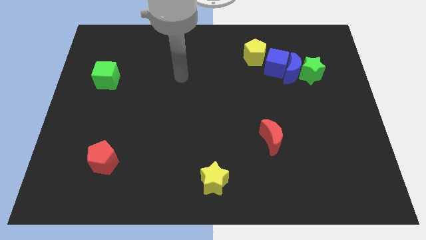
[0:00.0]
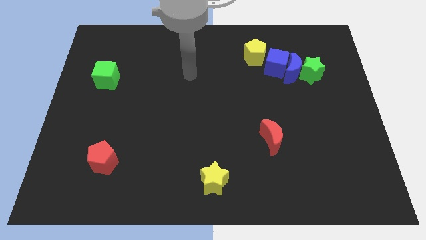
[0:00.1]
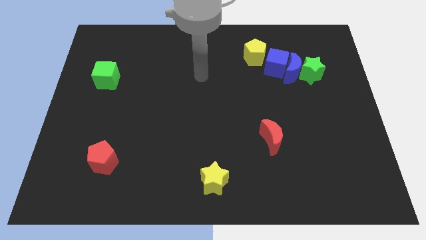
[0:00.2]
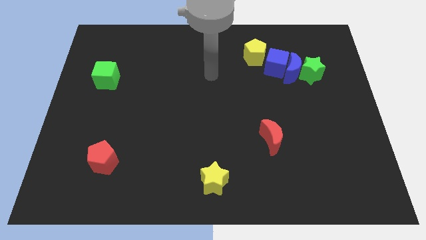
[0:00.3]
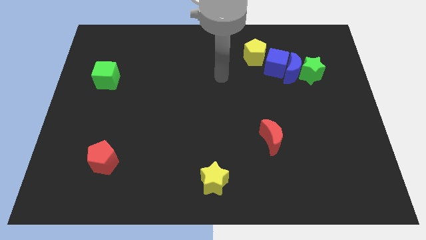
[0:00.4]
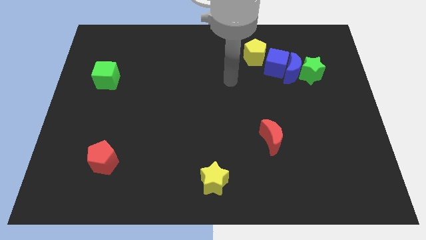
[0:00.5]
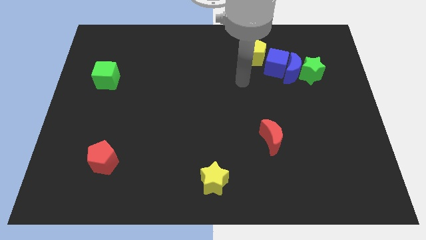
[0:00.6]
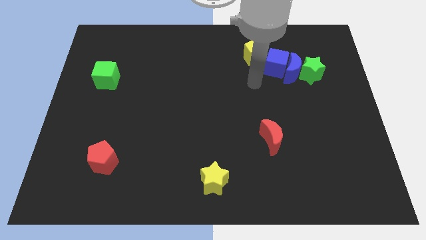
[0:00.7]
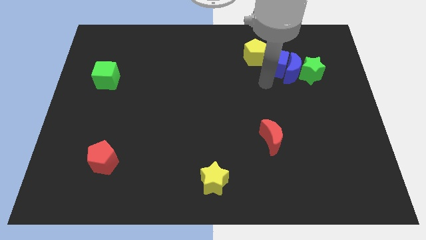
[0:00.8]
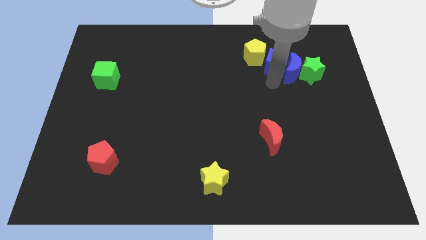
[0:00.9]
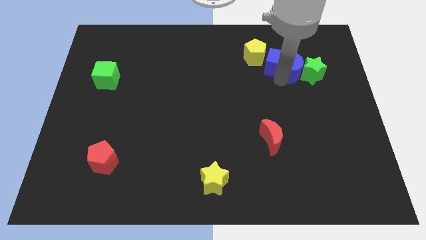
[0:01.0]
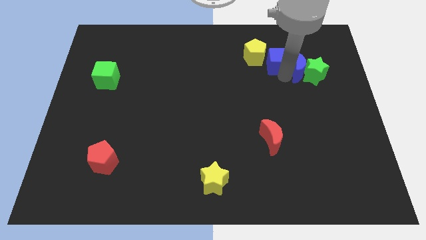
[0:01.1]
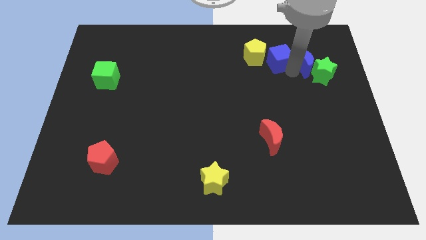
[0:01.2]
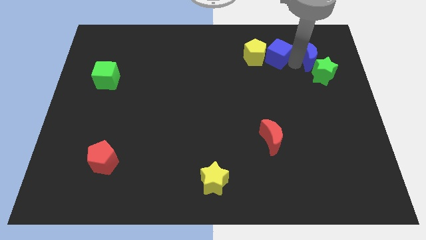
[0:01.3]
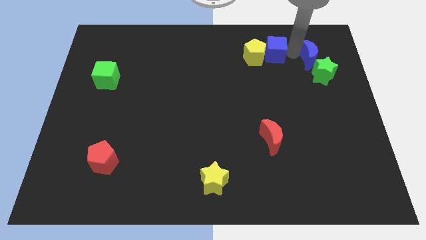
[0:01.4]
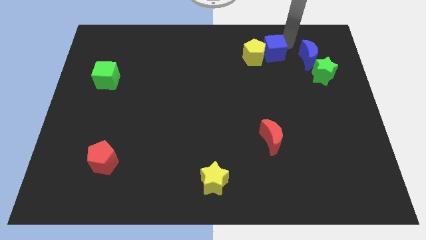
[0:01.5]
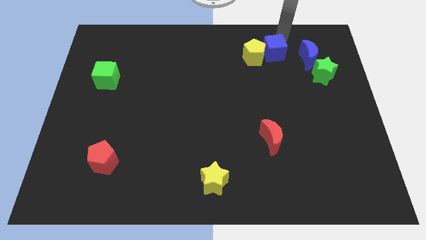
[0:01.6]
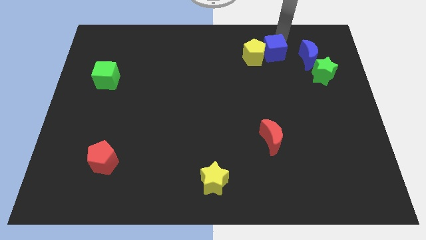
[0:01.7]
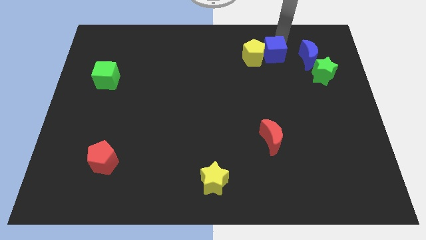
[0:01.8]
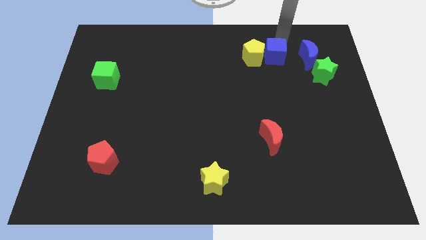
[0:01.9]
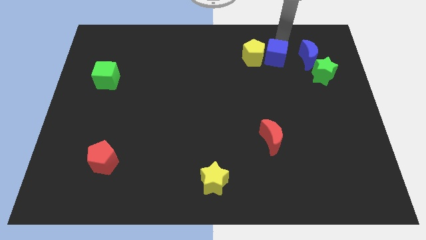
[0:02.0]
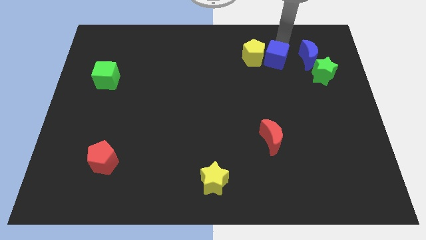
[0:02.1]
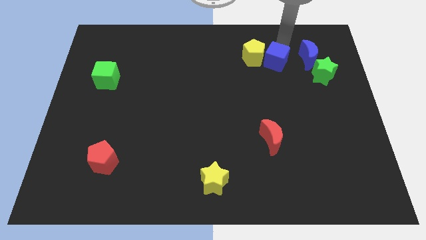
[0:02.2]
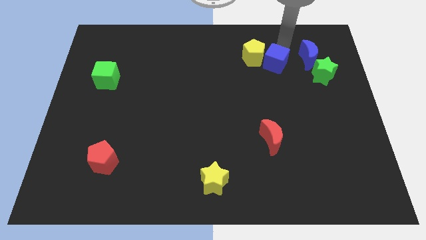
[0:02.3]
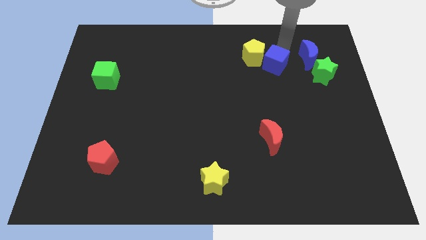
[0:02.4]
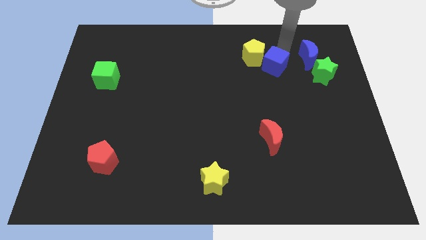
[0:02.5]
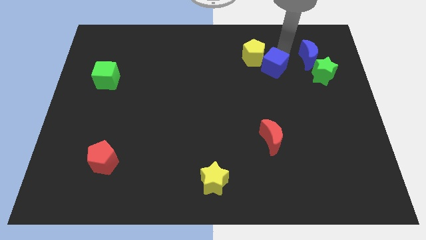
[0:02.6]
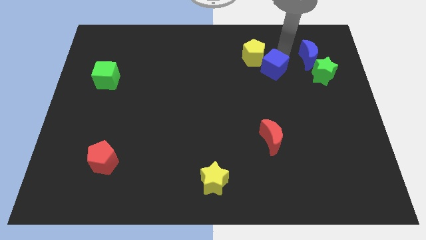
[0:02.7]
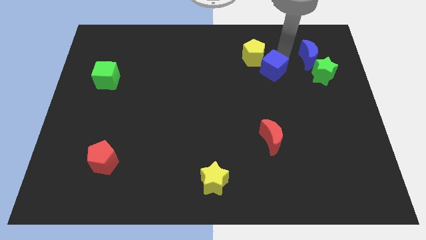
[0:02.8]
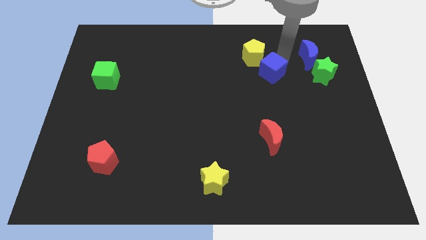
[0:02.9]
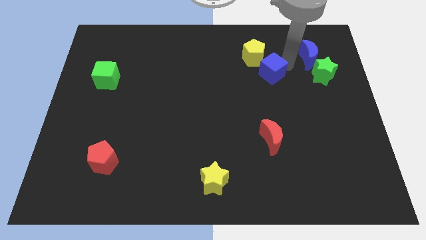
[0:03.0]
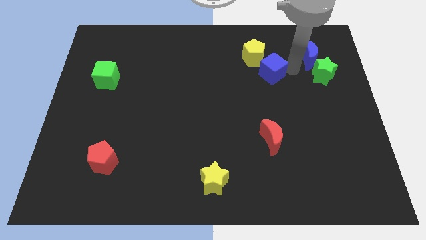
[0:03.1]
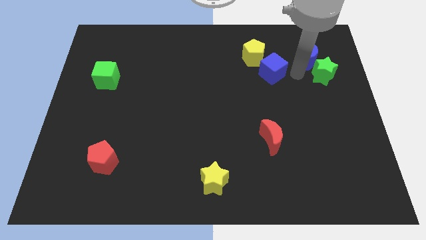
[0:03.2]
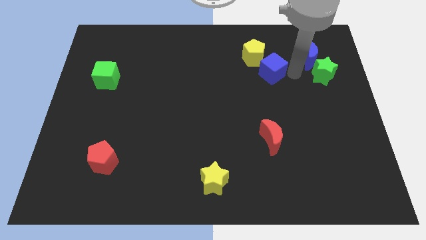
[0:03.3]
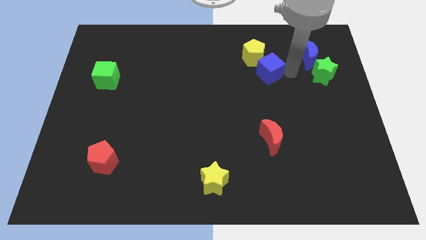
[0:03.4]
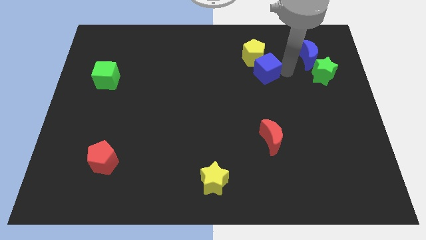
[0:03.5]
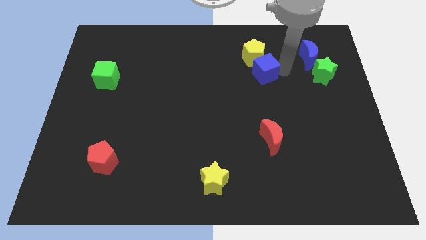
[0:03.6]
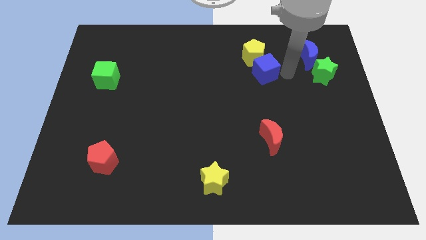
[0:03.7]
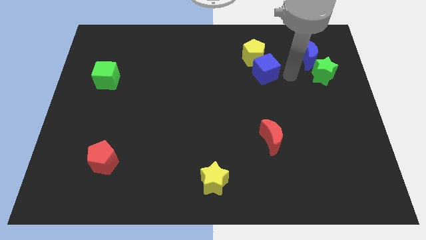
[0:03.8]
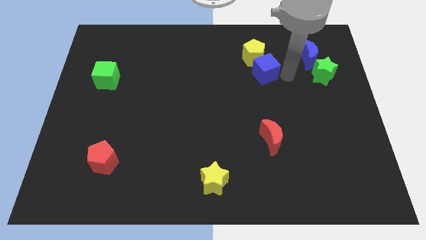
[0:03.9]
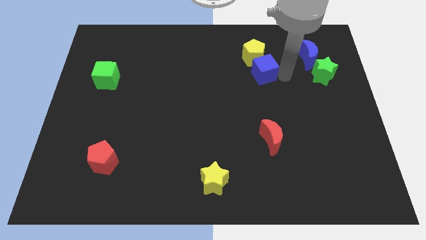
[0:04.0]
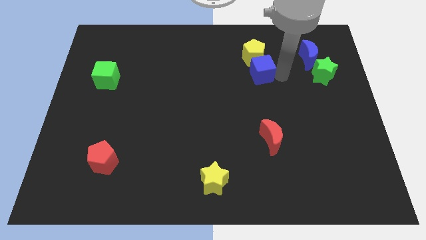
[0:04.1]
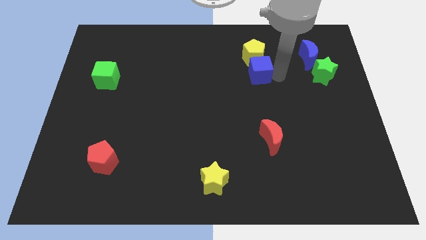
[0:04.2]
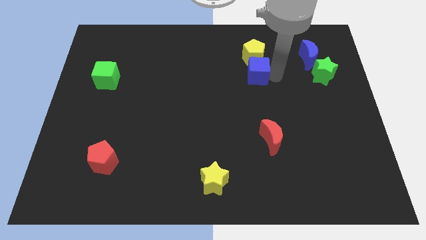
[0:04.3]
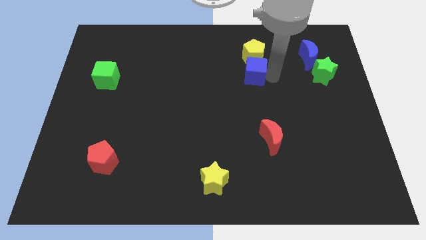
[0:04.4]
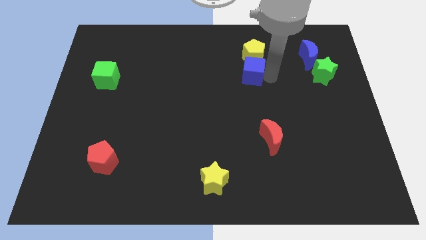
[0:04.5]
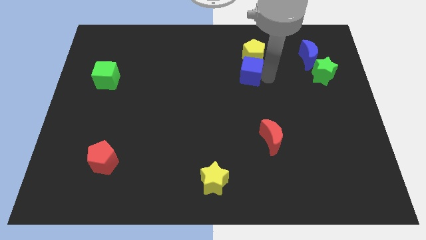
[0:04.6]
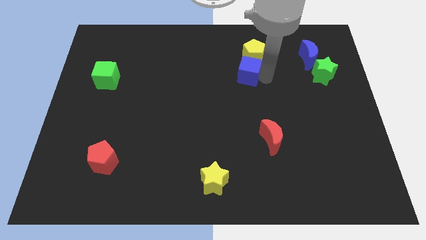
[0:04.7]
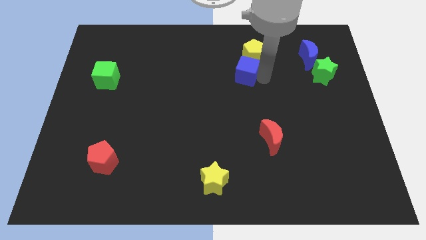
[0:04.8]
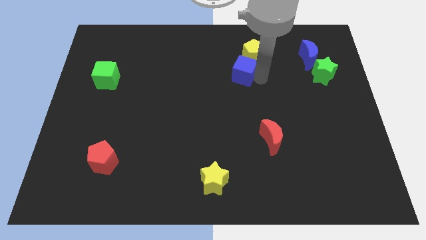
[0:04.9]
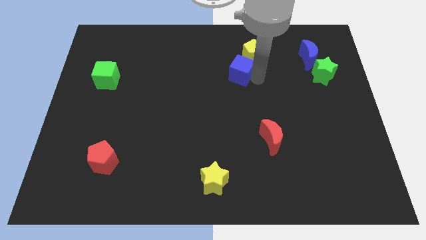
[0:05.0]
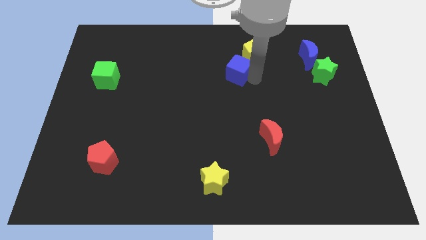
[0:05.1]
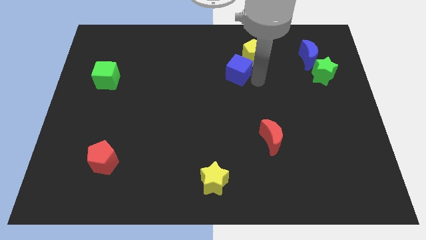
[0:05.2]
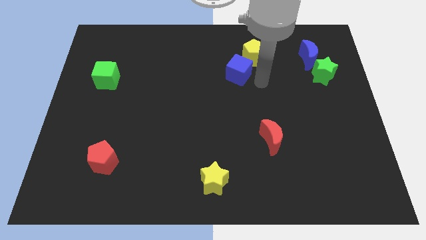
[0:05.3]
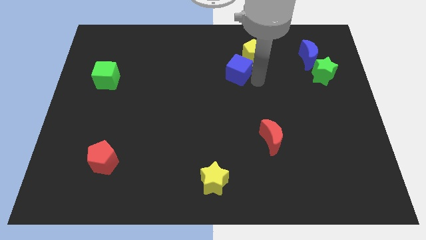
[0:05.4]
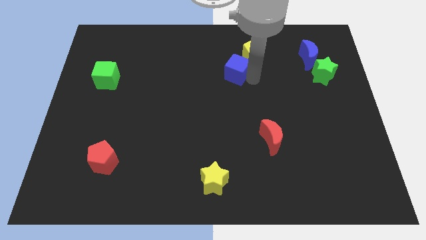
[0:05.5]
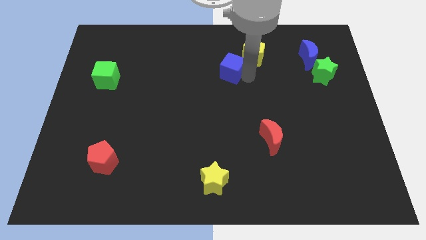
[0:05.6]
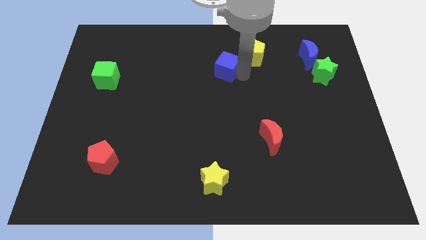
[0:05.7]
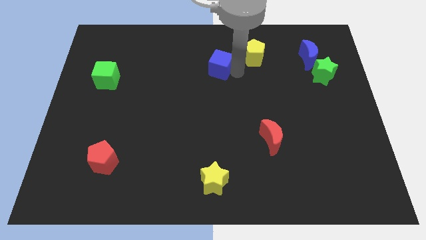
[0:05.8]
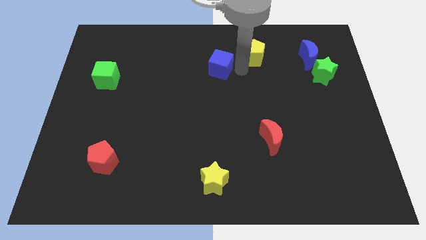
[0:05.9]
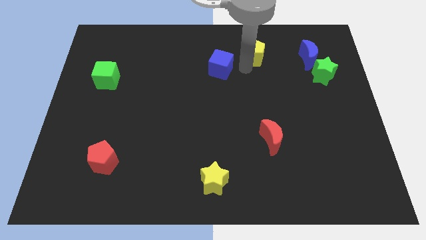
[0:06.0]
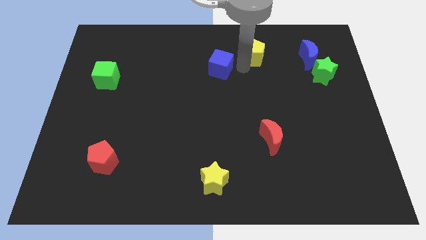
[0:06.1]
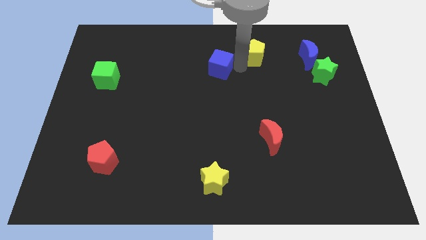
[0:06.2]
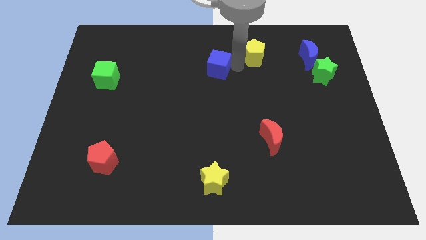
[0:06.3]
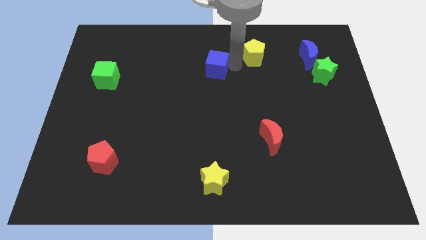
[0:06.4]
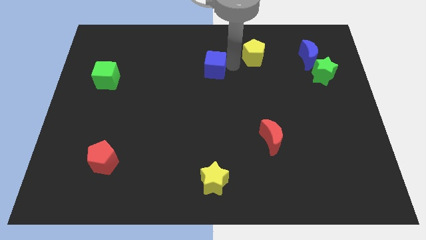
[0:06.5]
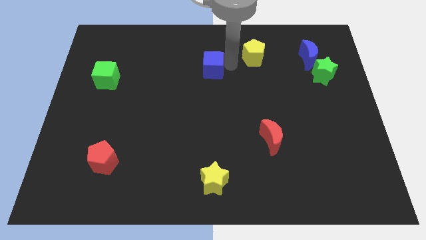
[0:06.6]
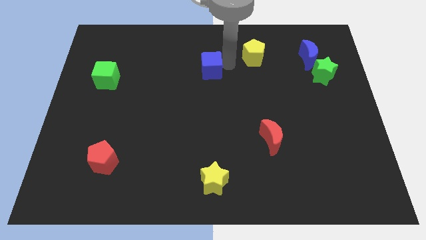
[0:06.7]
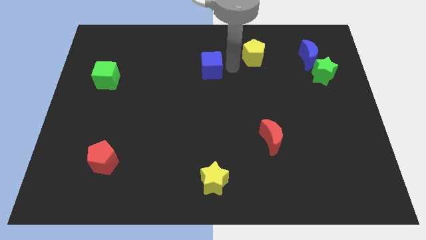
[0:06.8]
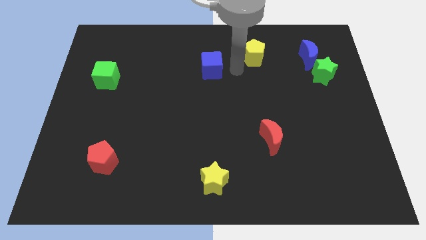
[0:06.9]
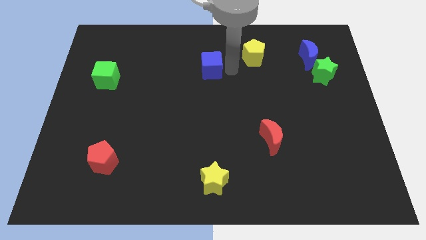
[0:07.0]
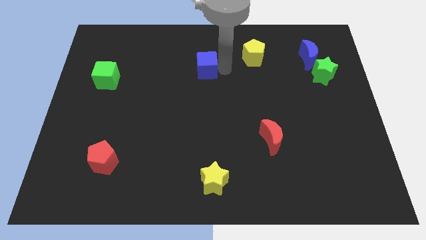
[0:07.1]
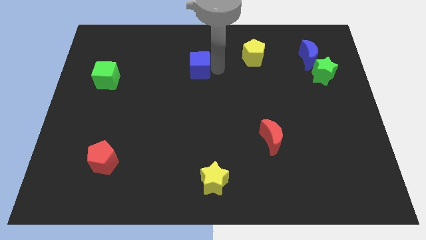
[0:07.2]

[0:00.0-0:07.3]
slide the blue cube left

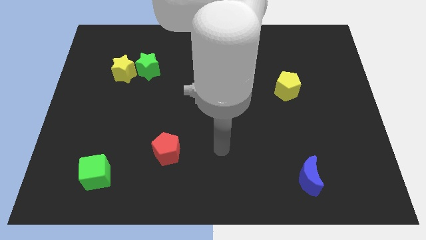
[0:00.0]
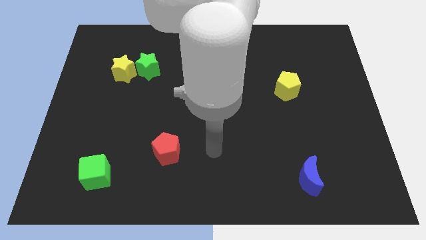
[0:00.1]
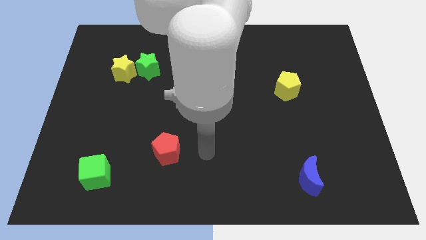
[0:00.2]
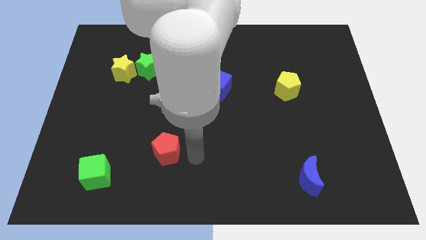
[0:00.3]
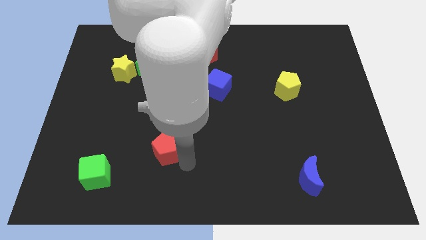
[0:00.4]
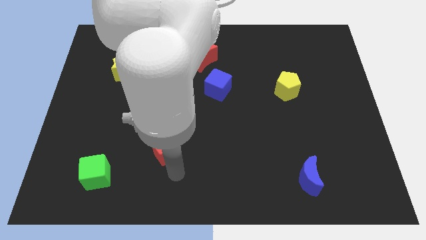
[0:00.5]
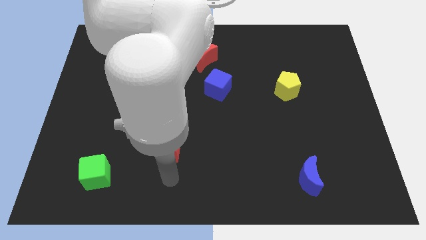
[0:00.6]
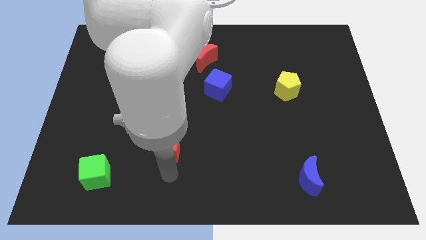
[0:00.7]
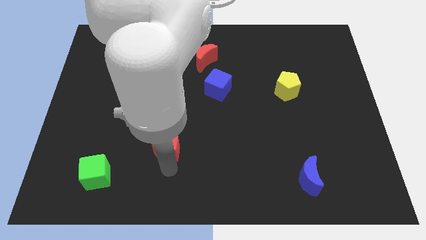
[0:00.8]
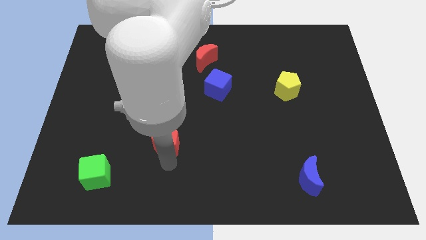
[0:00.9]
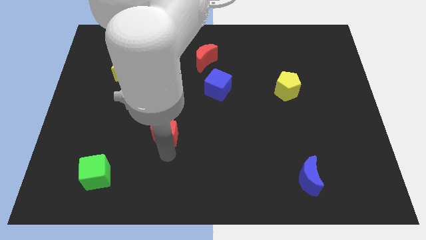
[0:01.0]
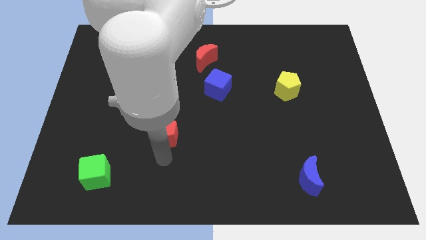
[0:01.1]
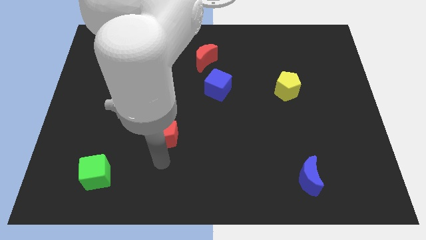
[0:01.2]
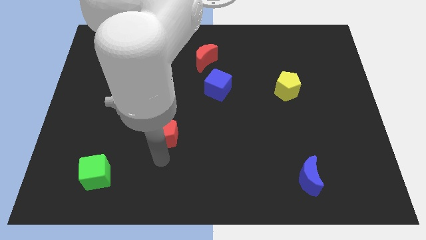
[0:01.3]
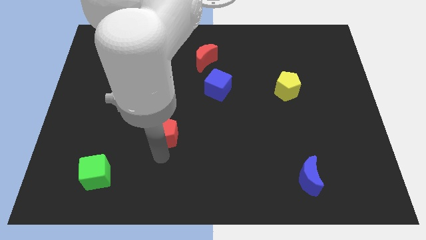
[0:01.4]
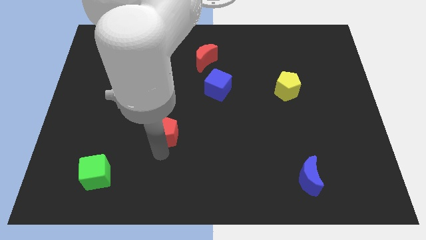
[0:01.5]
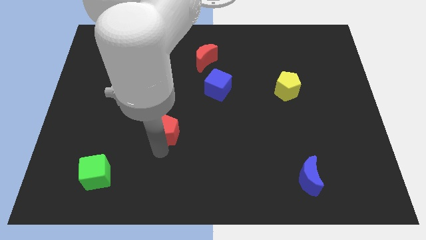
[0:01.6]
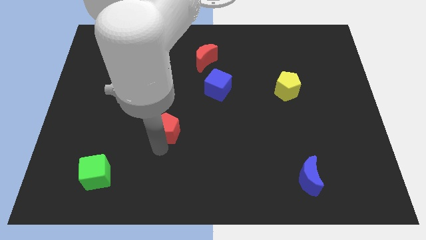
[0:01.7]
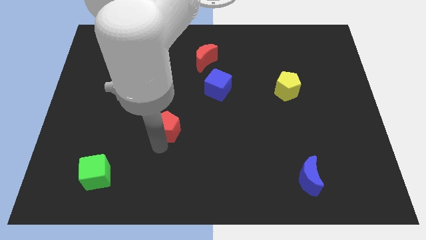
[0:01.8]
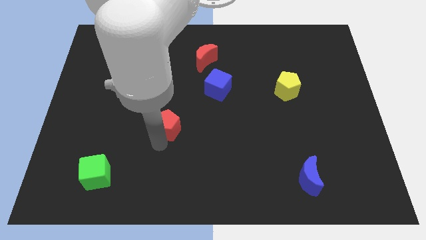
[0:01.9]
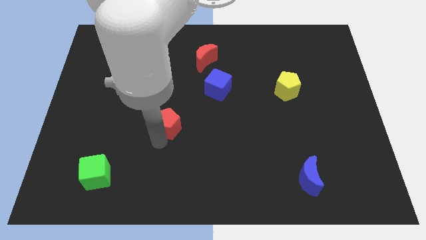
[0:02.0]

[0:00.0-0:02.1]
slide the red pentagon upwards a little
